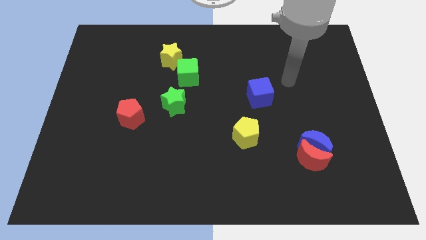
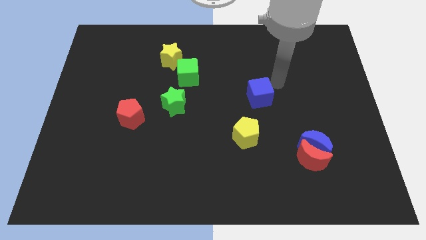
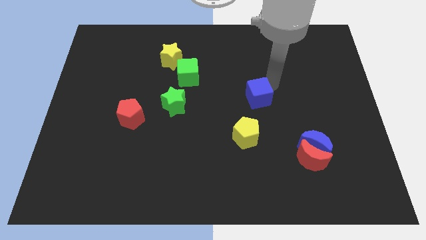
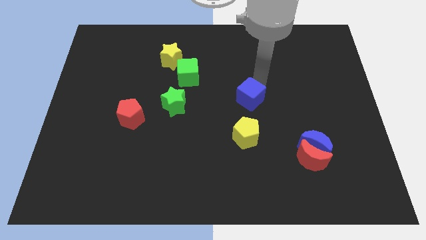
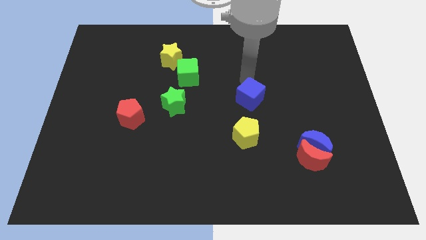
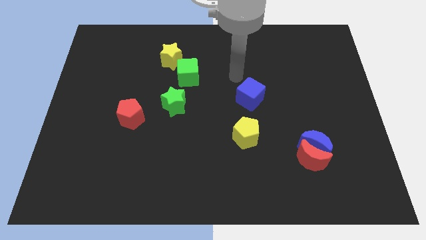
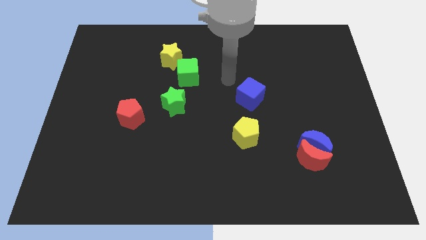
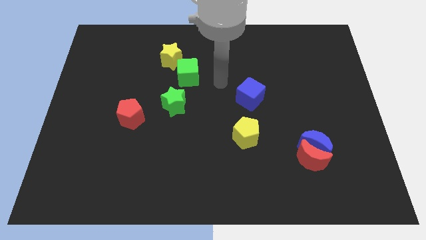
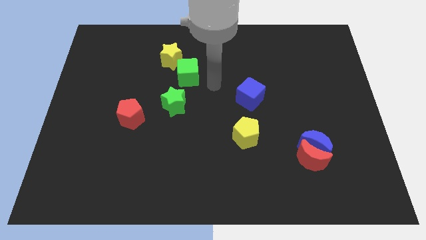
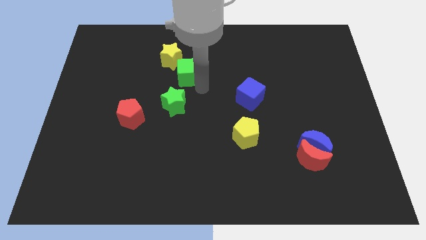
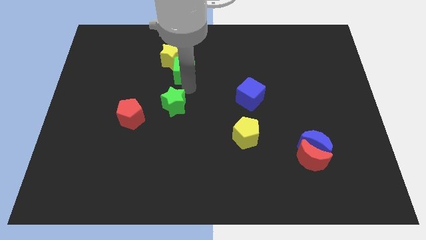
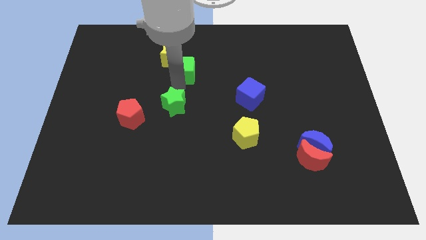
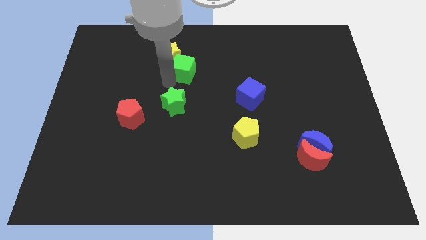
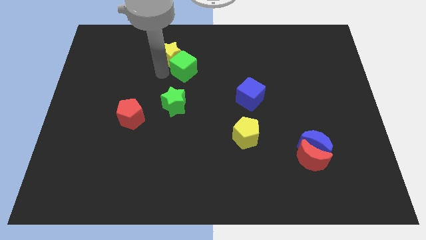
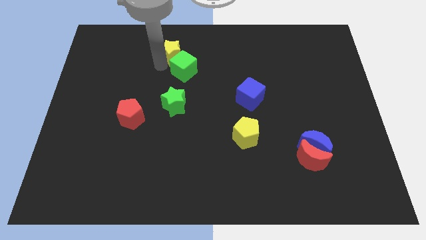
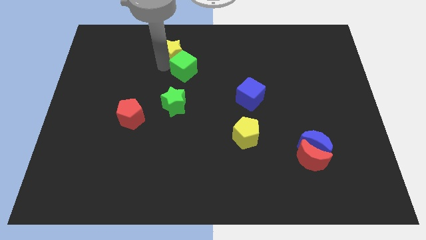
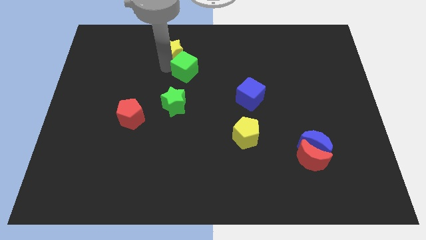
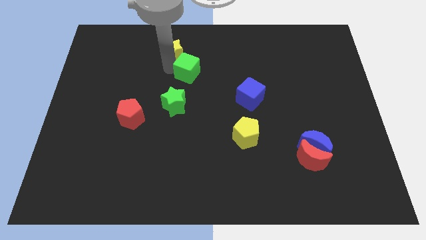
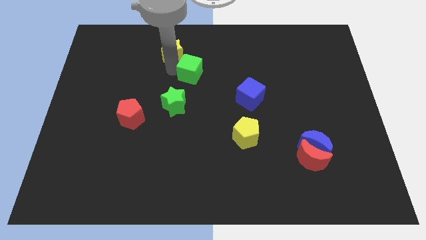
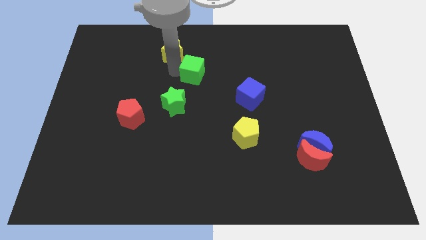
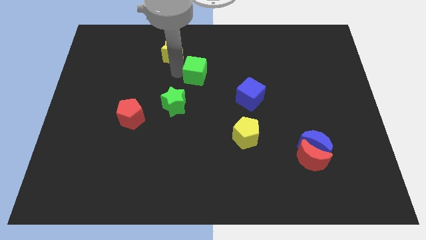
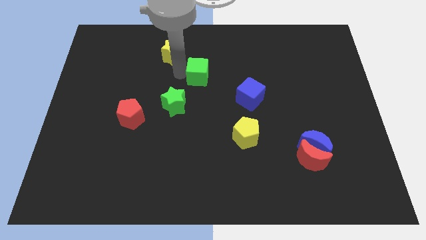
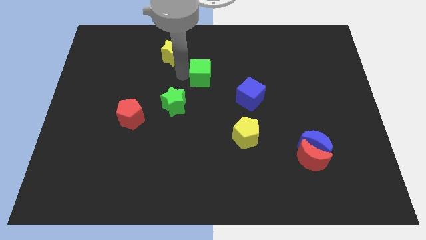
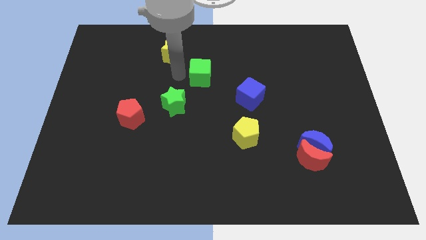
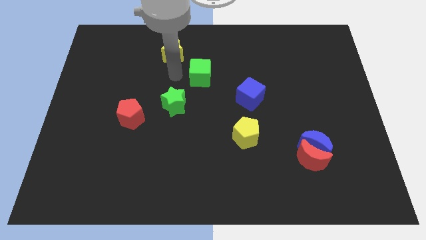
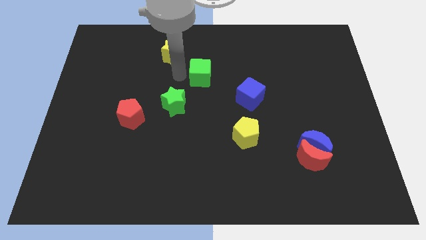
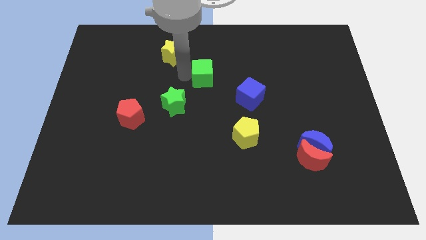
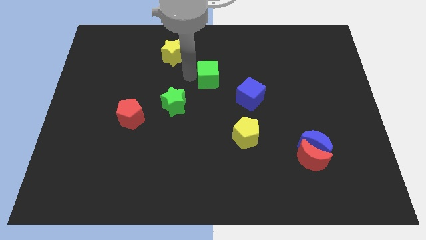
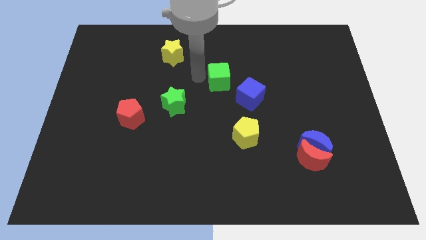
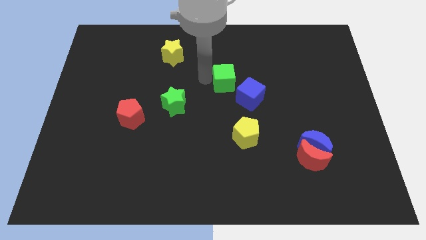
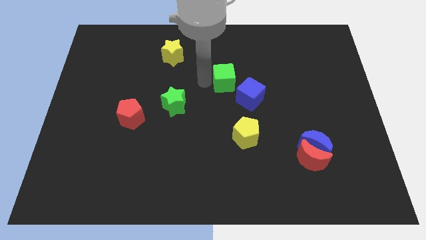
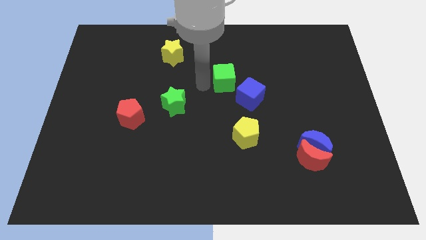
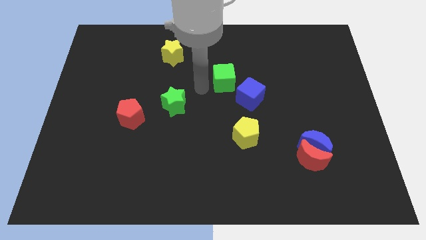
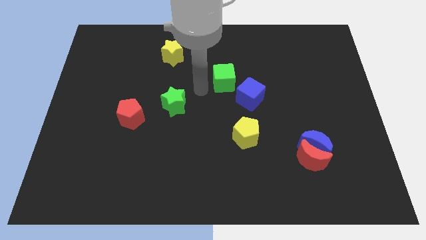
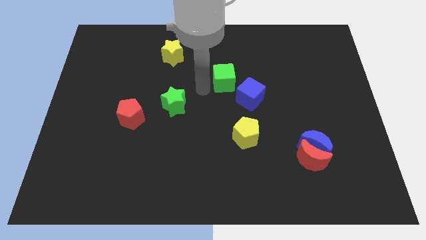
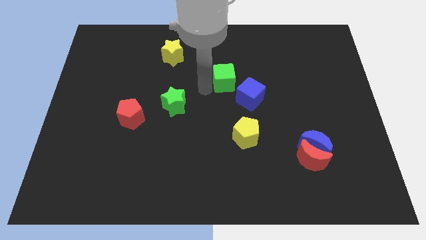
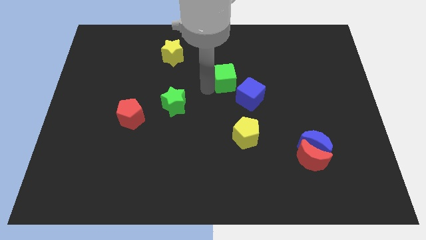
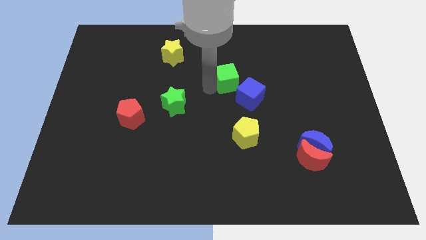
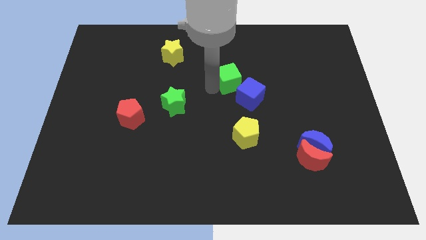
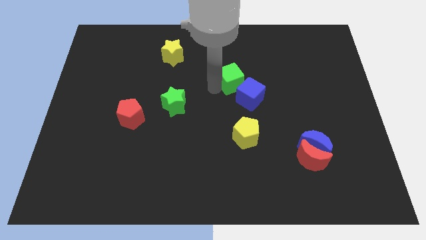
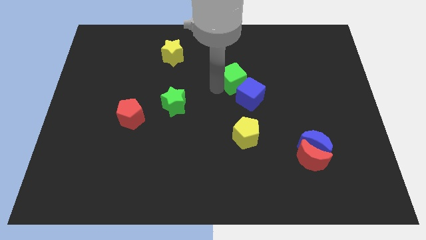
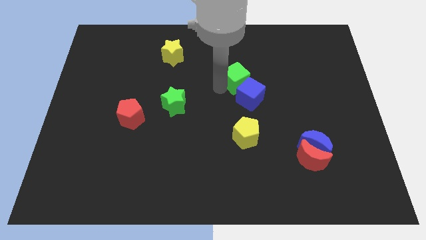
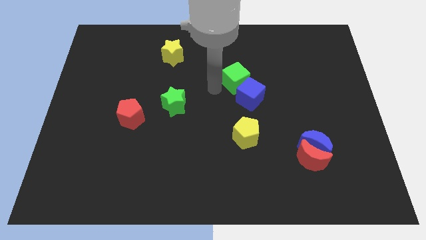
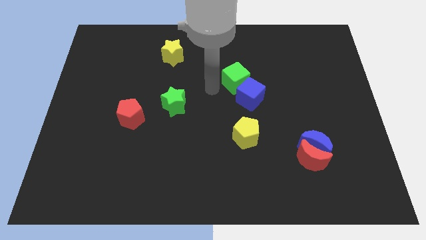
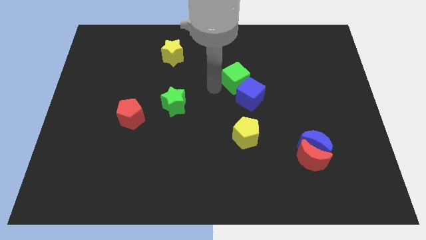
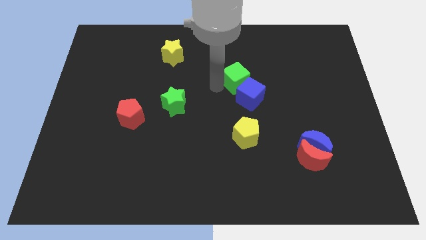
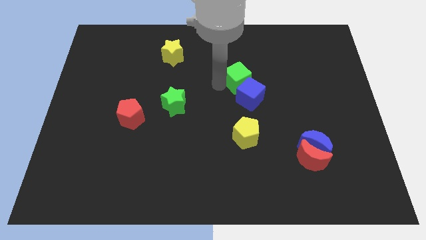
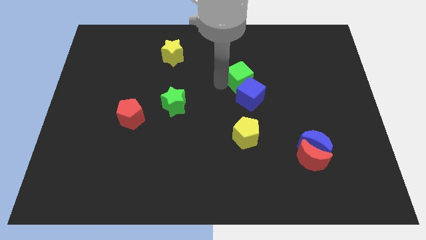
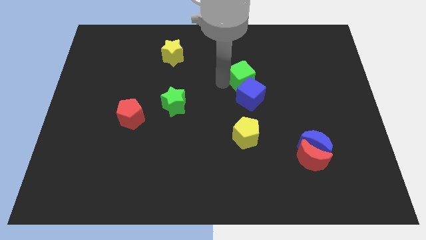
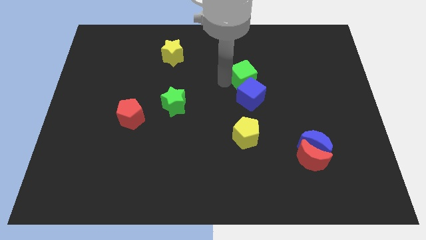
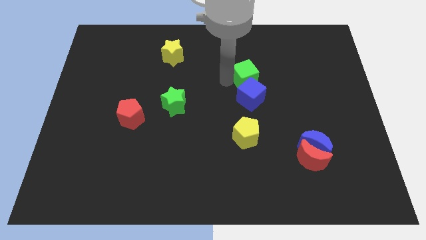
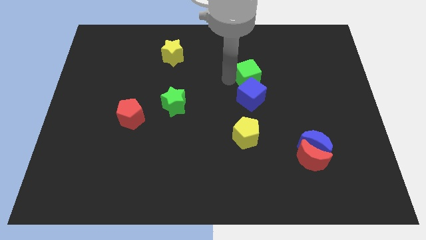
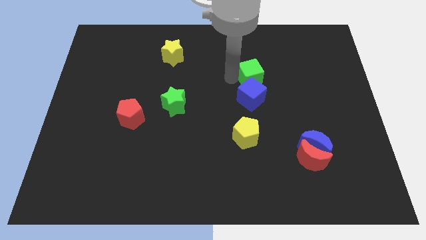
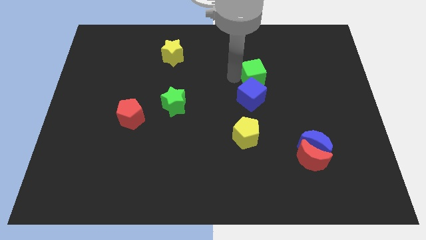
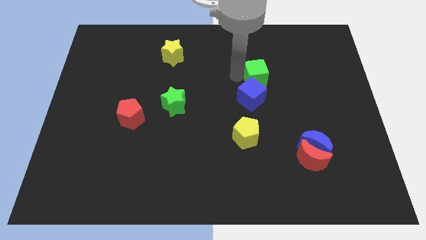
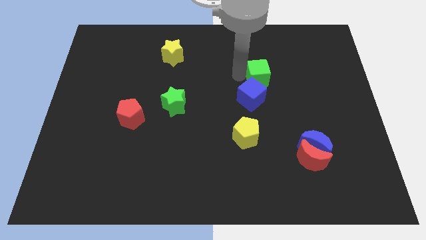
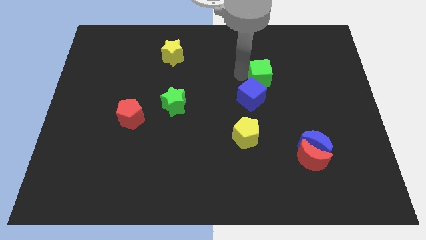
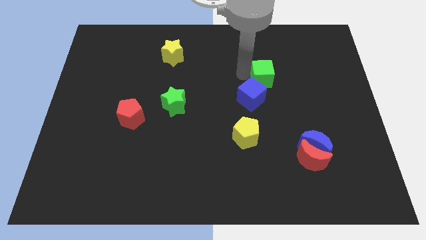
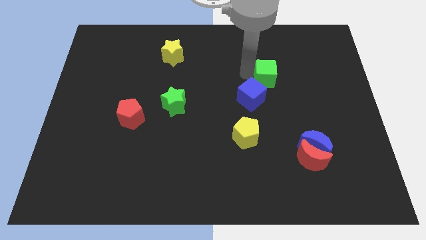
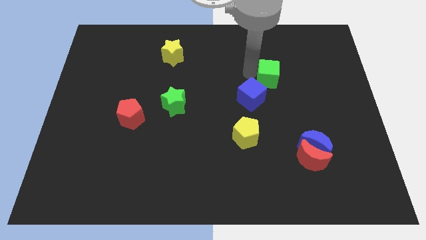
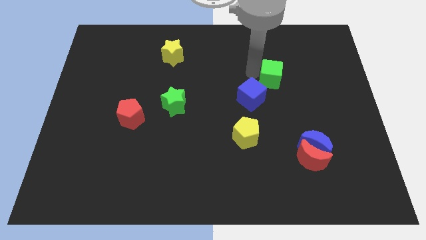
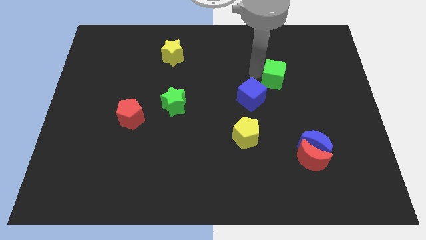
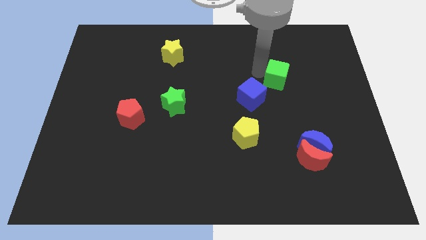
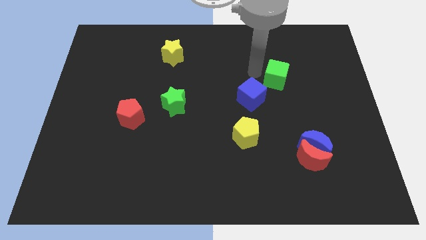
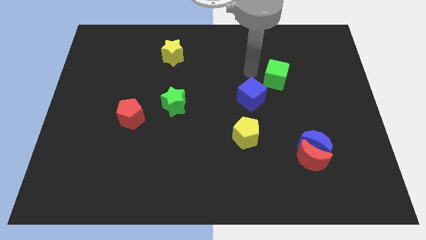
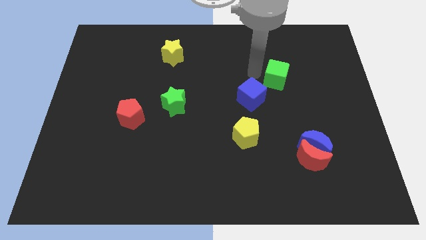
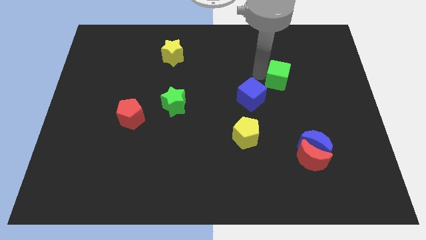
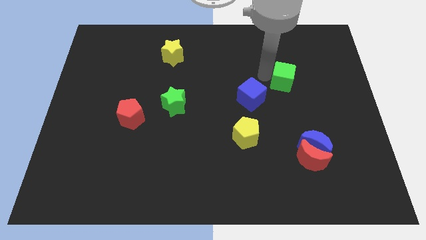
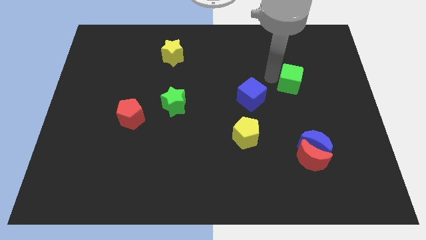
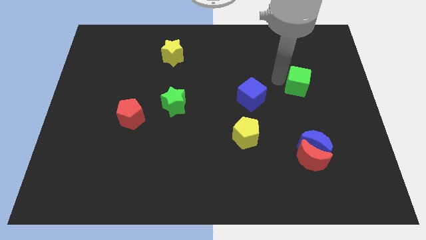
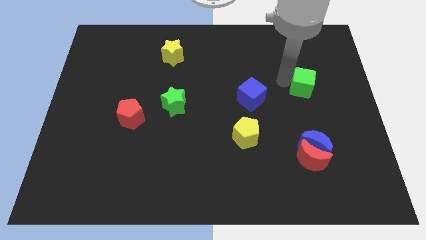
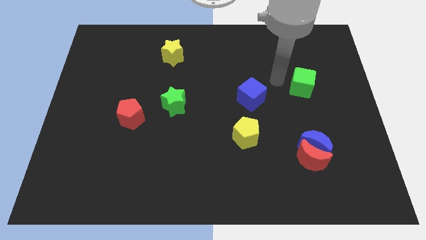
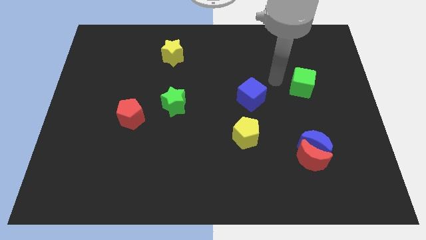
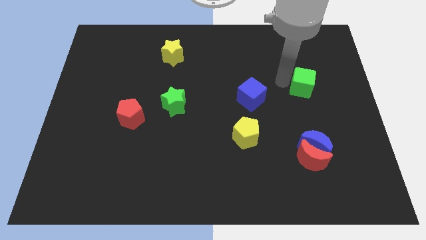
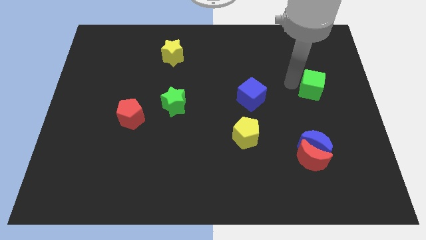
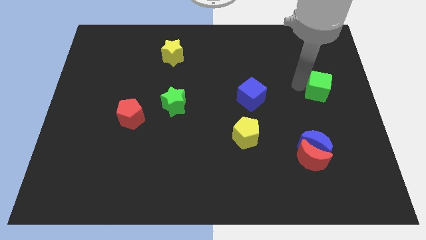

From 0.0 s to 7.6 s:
slide the green cube to the center right
